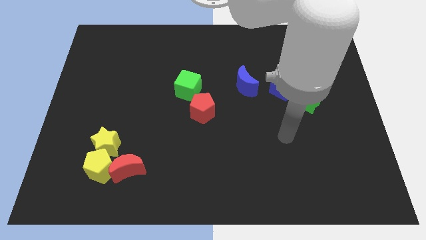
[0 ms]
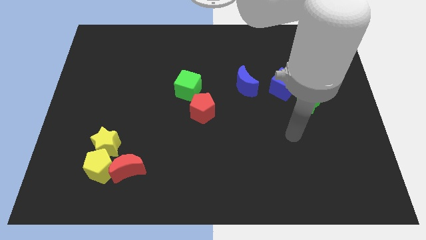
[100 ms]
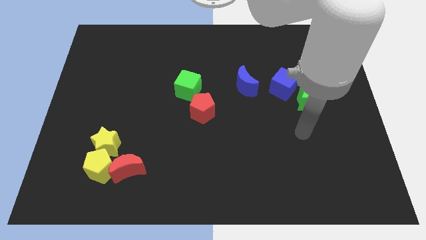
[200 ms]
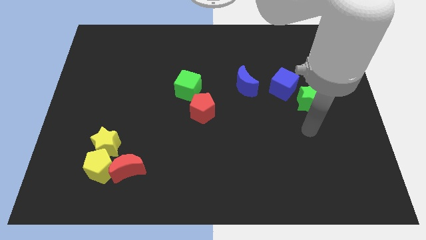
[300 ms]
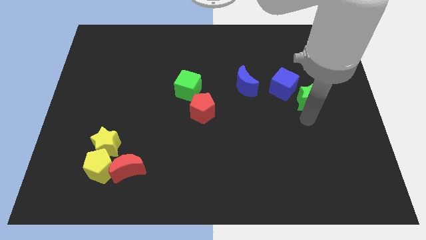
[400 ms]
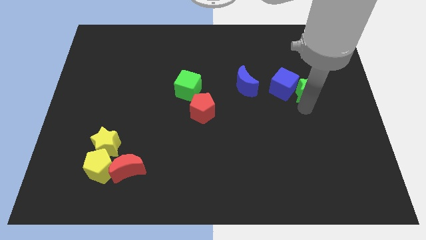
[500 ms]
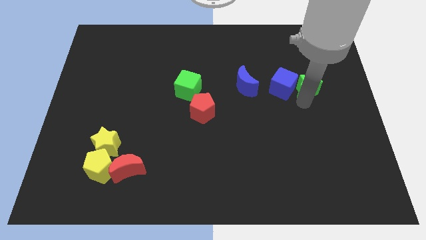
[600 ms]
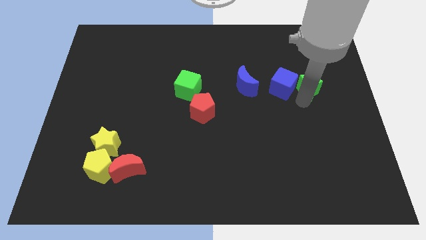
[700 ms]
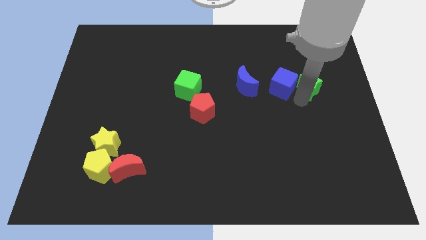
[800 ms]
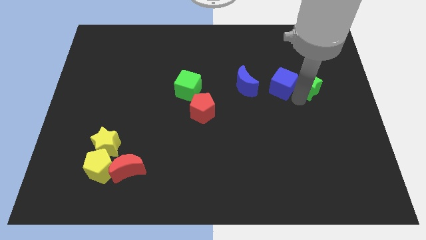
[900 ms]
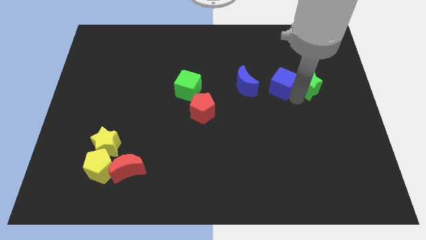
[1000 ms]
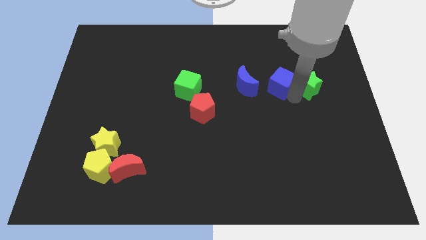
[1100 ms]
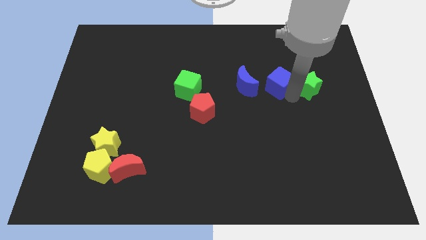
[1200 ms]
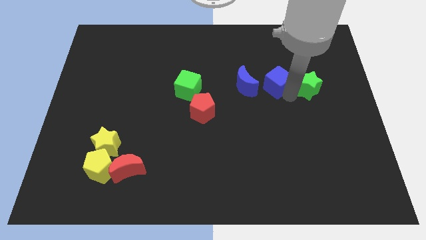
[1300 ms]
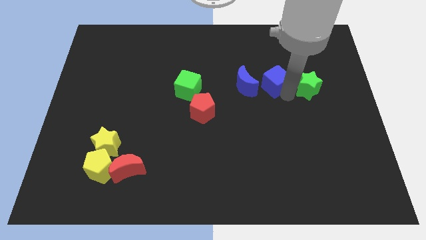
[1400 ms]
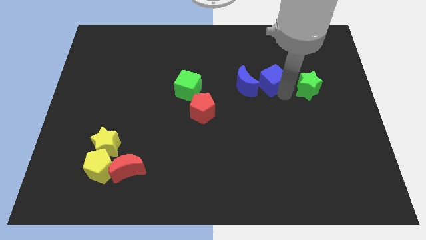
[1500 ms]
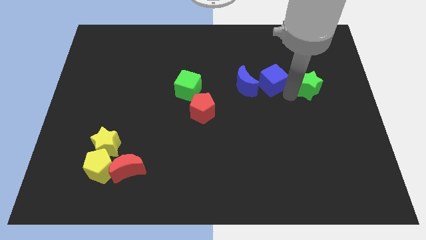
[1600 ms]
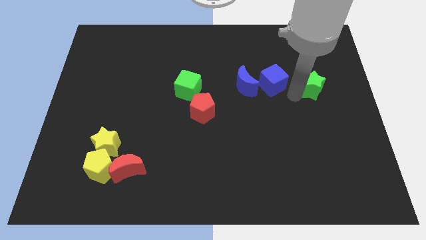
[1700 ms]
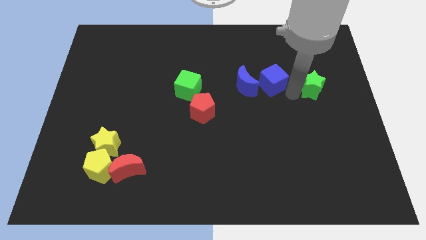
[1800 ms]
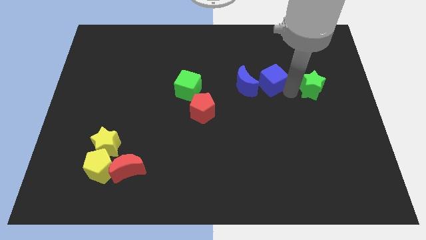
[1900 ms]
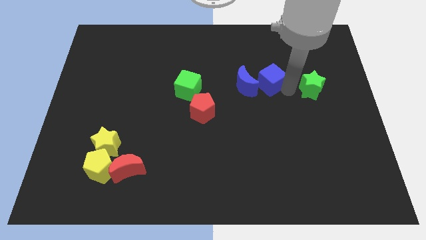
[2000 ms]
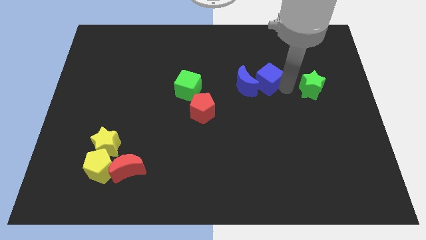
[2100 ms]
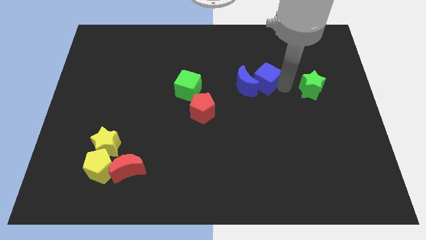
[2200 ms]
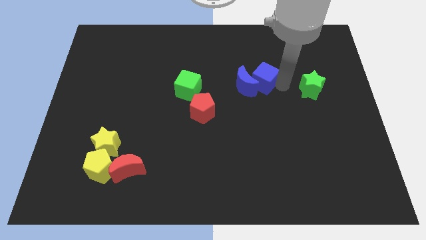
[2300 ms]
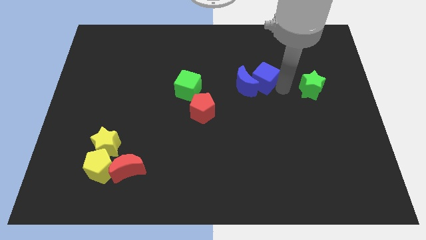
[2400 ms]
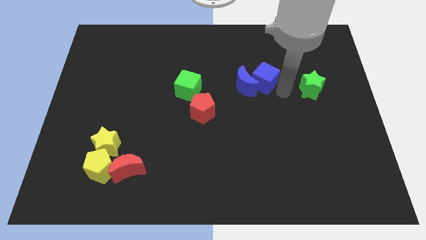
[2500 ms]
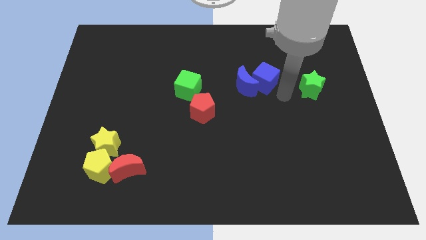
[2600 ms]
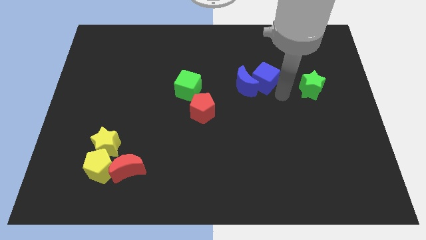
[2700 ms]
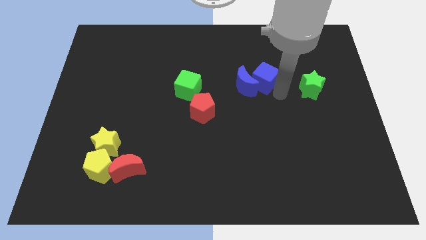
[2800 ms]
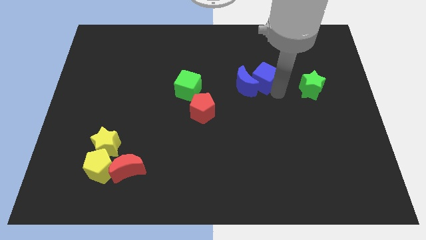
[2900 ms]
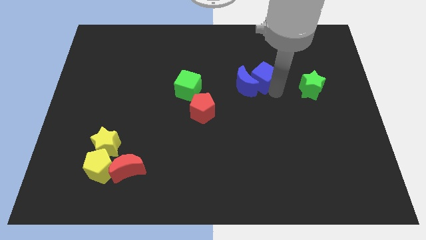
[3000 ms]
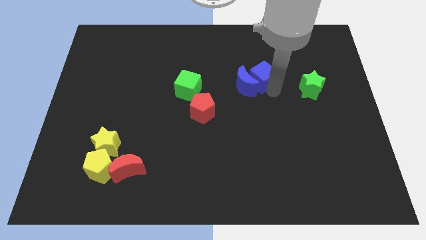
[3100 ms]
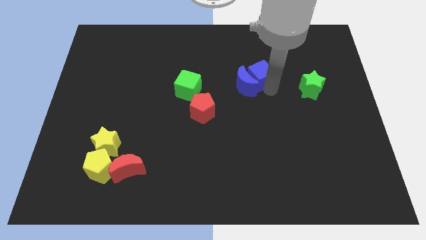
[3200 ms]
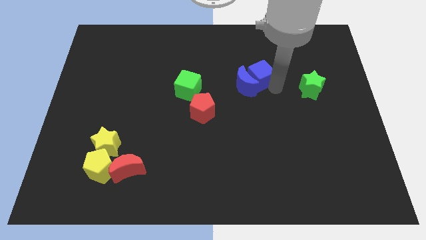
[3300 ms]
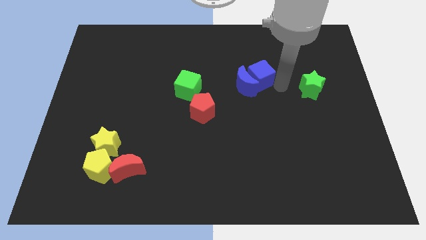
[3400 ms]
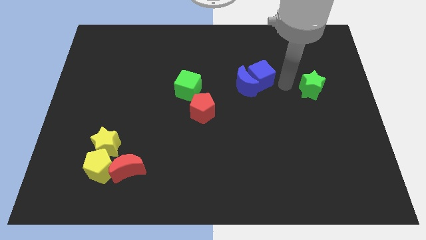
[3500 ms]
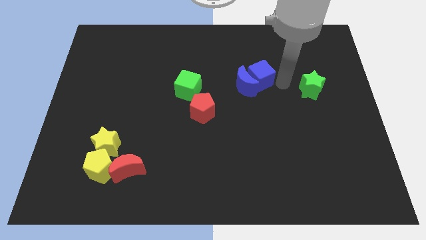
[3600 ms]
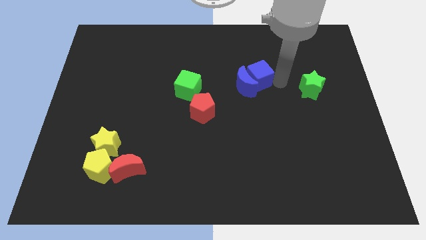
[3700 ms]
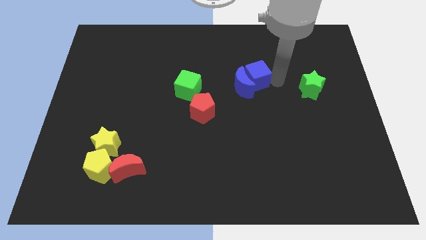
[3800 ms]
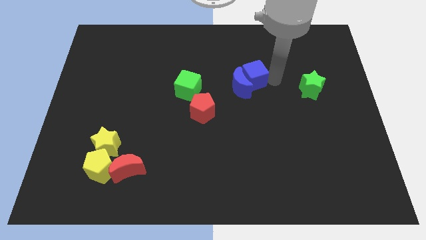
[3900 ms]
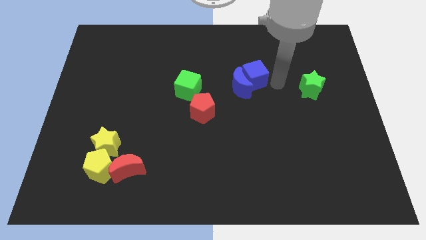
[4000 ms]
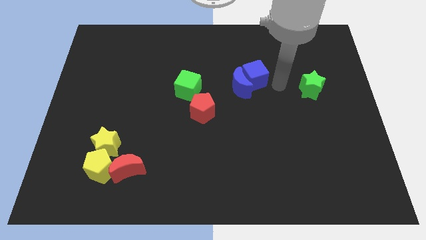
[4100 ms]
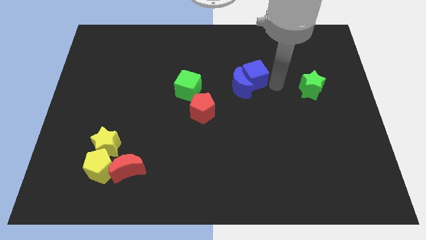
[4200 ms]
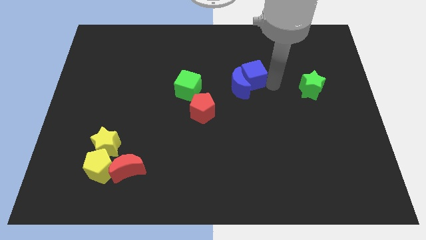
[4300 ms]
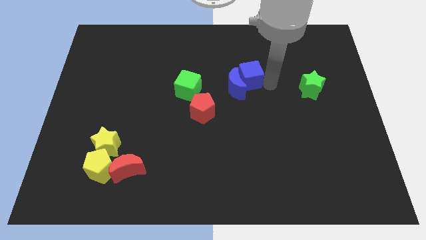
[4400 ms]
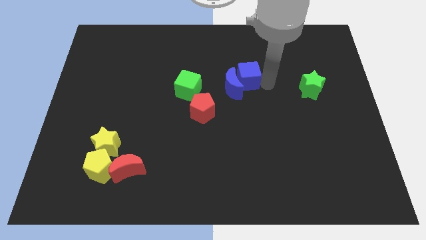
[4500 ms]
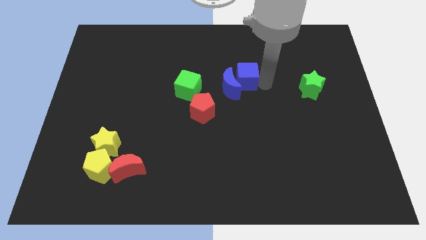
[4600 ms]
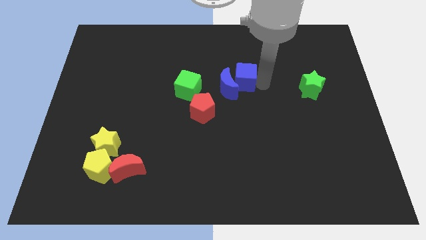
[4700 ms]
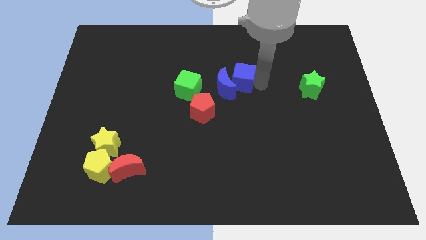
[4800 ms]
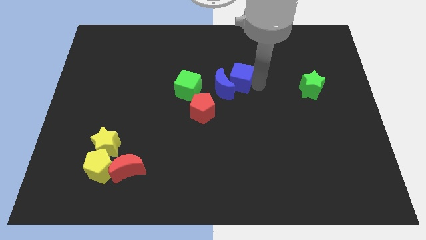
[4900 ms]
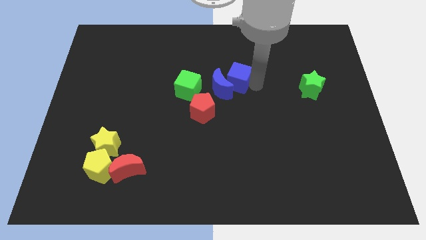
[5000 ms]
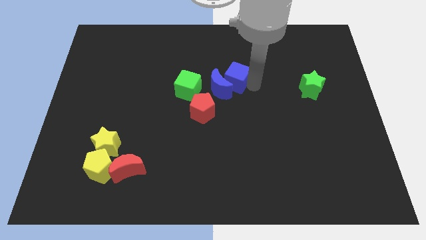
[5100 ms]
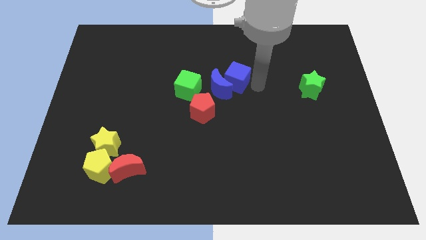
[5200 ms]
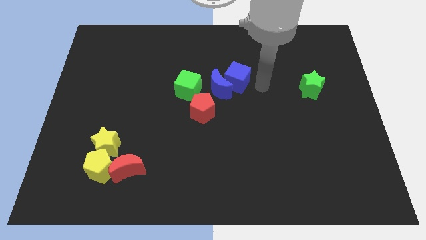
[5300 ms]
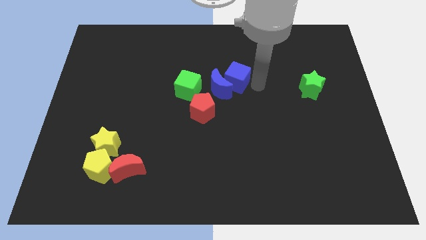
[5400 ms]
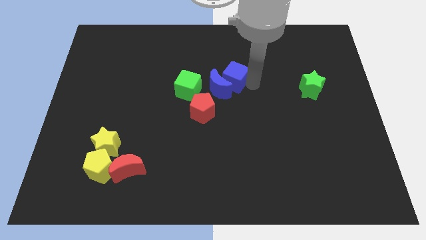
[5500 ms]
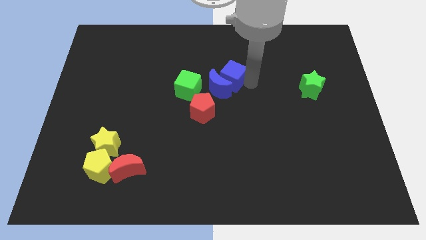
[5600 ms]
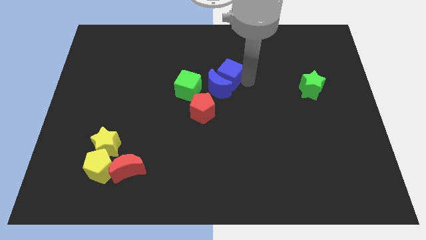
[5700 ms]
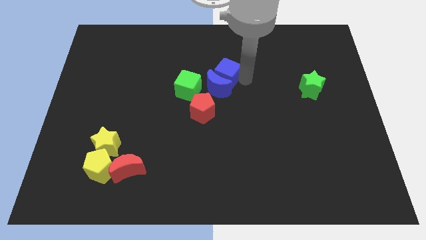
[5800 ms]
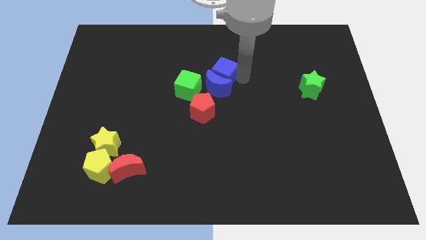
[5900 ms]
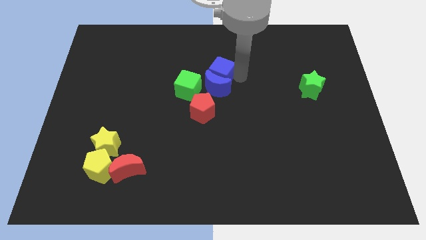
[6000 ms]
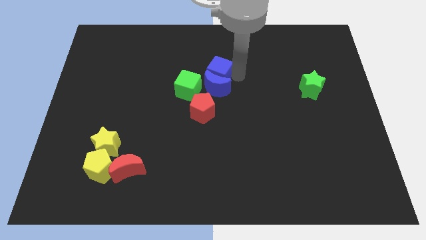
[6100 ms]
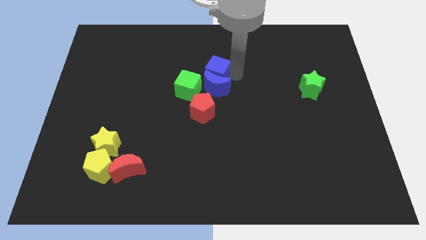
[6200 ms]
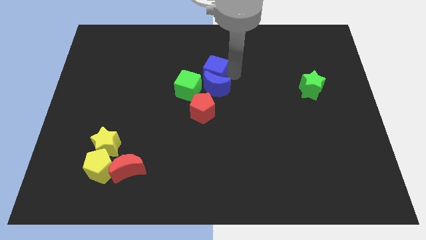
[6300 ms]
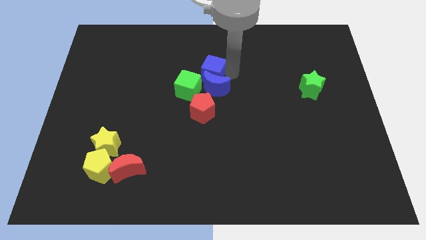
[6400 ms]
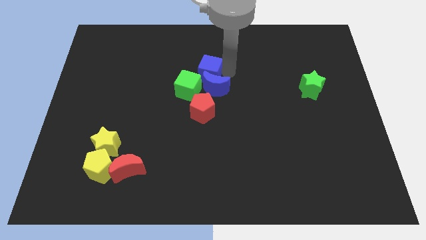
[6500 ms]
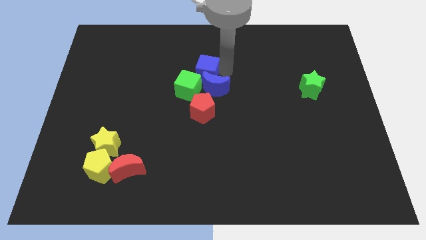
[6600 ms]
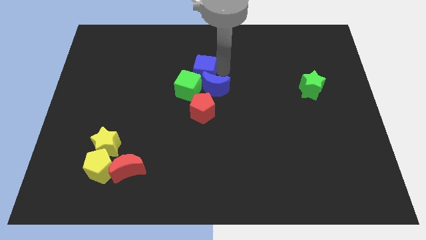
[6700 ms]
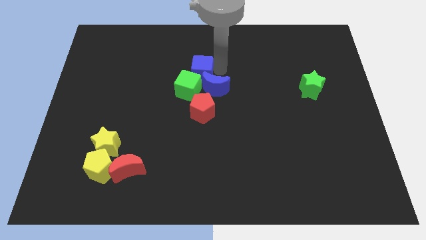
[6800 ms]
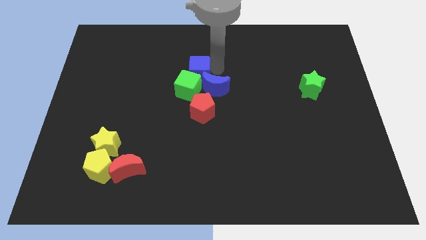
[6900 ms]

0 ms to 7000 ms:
move the blue cube left

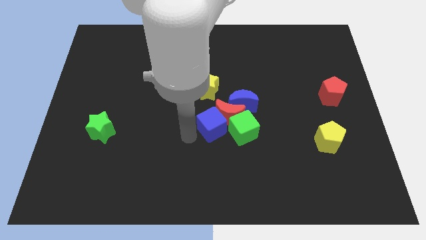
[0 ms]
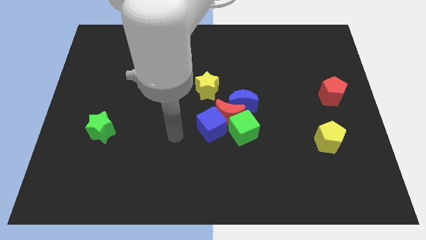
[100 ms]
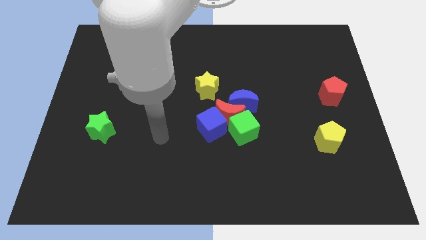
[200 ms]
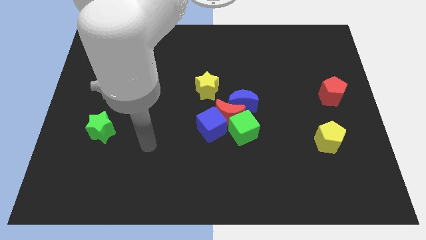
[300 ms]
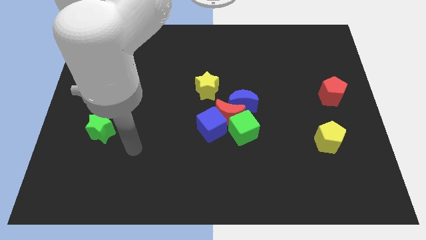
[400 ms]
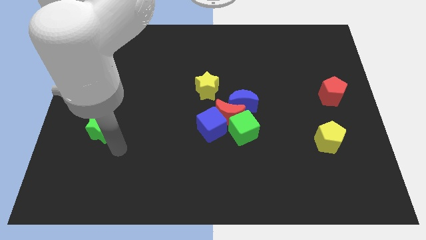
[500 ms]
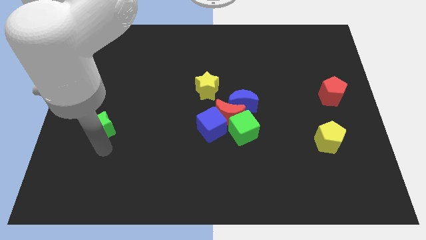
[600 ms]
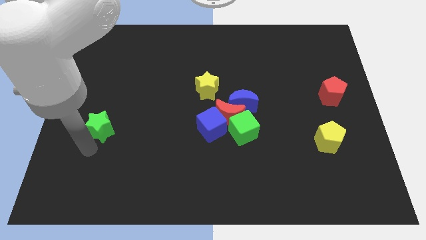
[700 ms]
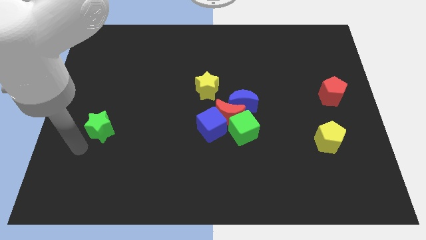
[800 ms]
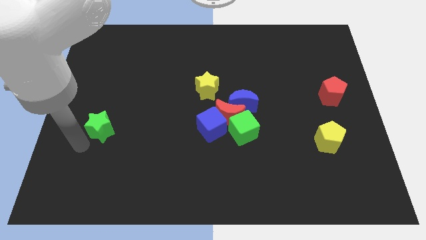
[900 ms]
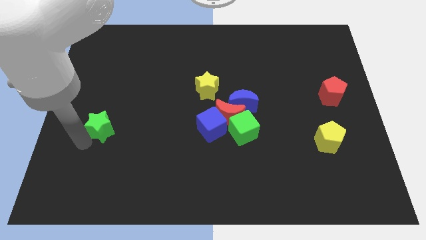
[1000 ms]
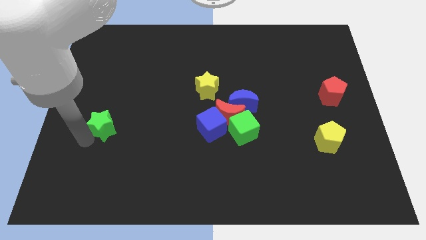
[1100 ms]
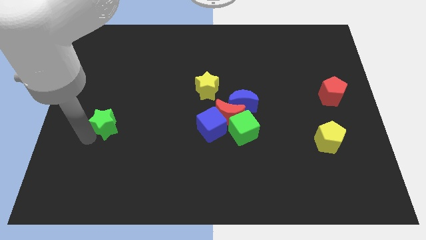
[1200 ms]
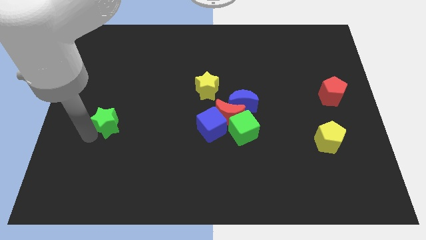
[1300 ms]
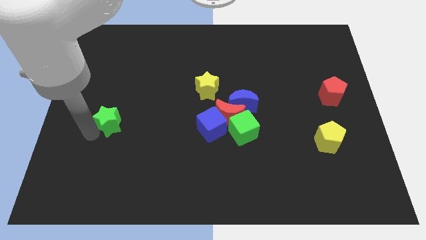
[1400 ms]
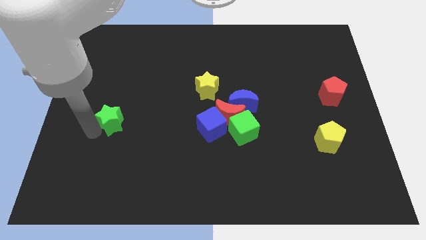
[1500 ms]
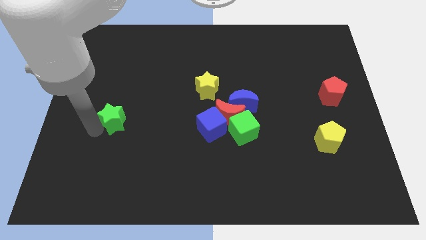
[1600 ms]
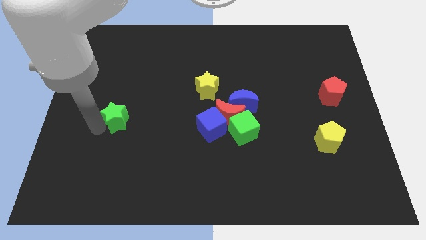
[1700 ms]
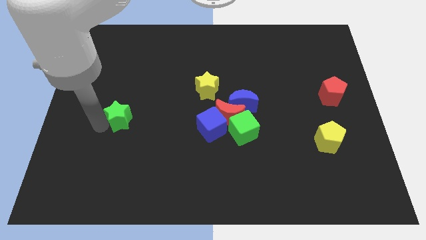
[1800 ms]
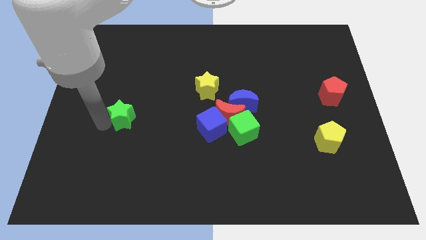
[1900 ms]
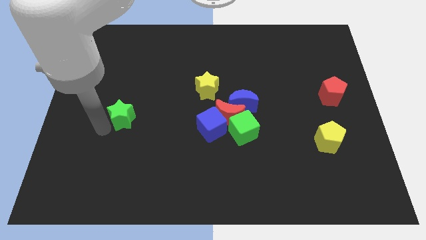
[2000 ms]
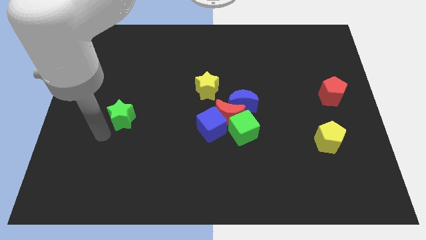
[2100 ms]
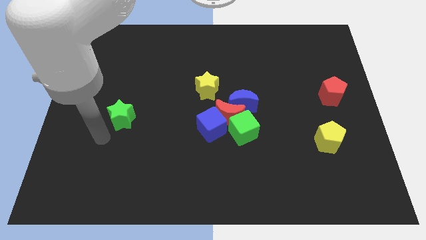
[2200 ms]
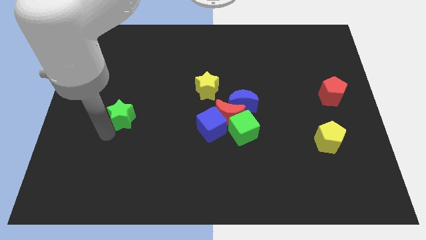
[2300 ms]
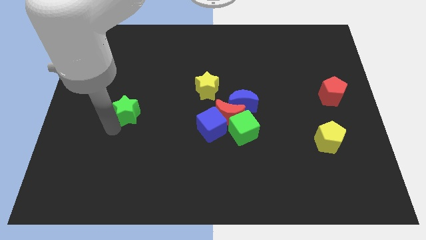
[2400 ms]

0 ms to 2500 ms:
move the green star a bit diagonally up and to the right
